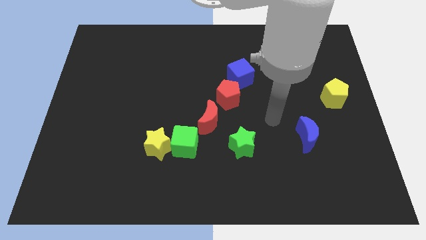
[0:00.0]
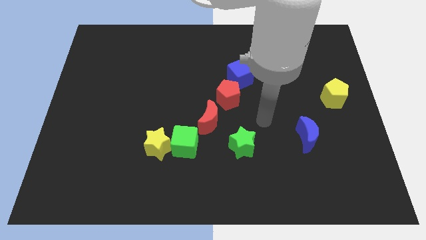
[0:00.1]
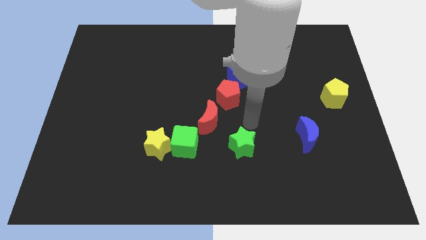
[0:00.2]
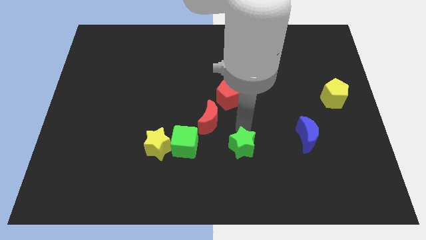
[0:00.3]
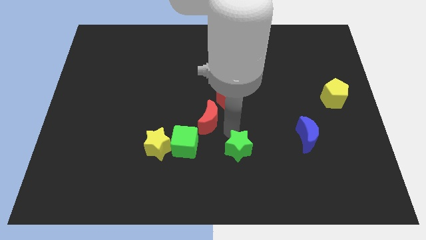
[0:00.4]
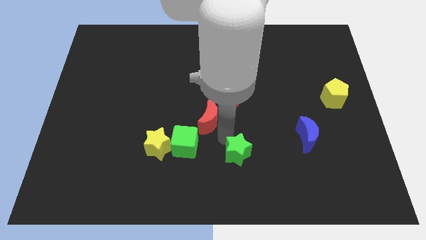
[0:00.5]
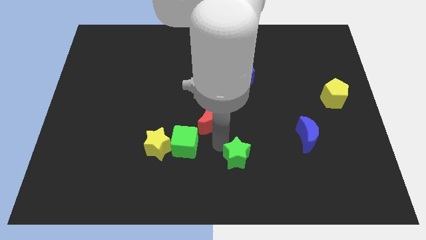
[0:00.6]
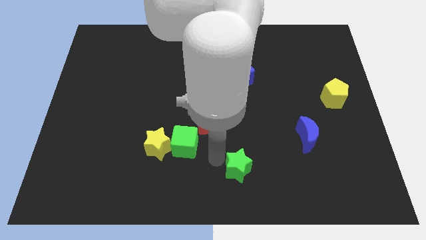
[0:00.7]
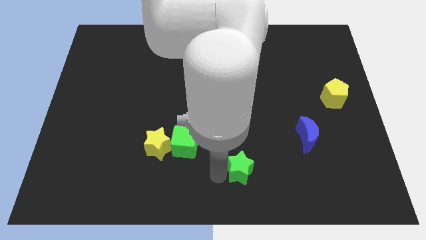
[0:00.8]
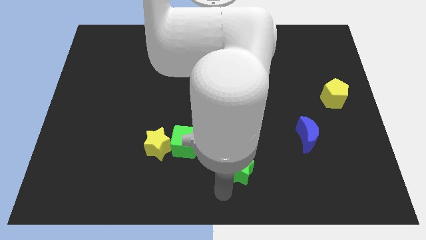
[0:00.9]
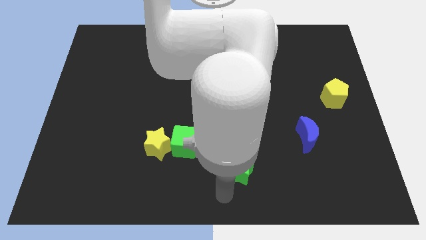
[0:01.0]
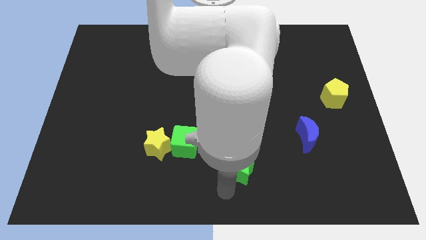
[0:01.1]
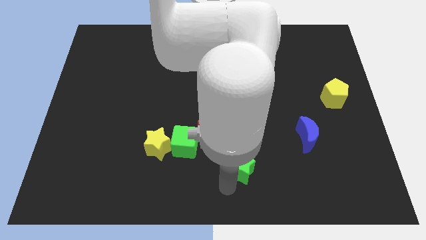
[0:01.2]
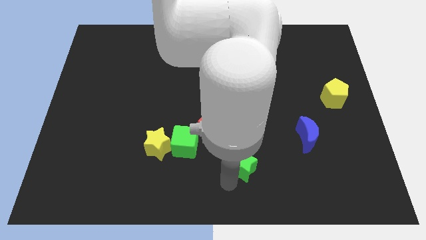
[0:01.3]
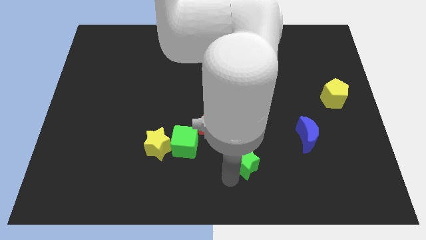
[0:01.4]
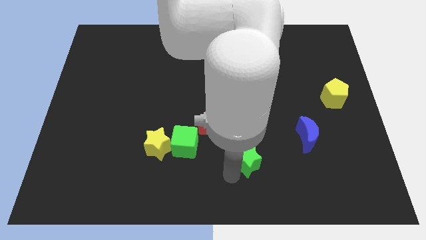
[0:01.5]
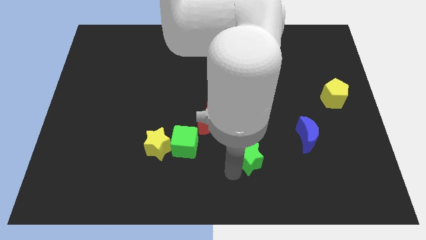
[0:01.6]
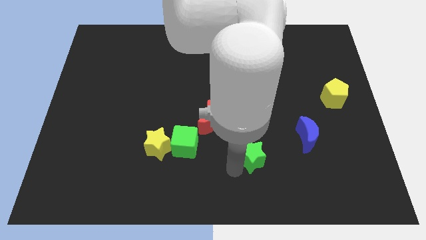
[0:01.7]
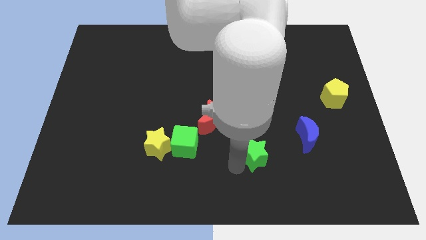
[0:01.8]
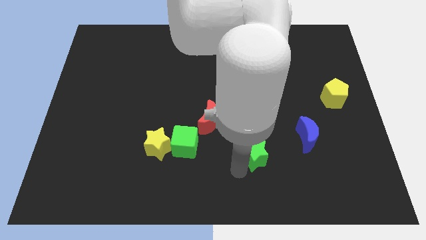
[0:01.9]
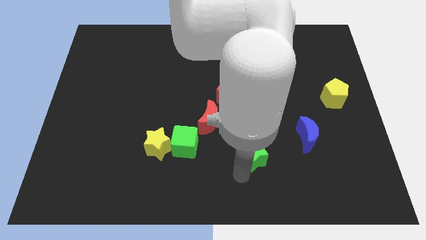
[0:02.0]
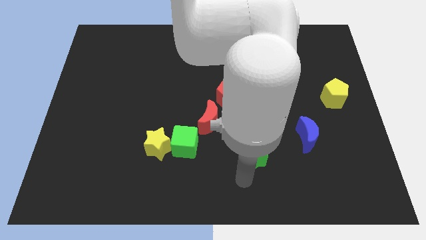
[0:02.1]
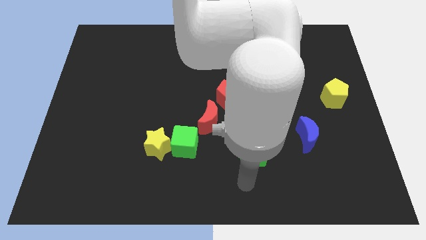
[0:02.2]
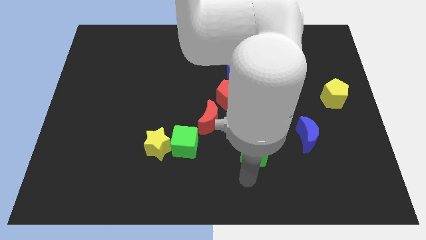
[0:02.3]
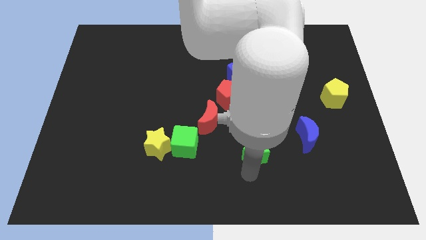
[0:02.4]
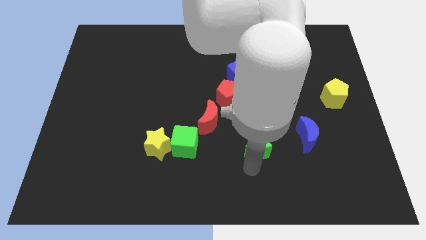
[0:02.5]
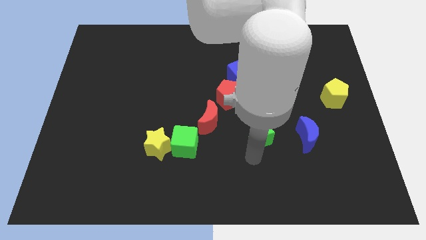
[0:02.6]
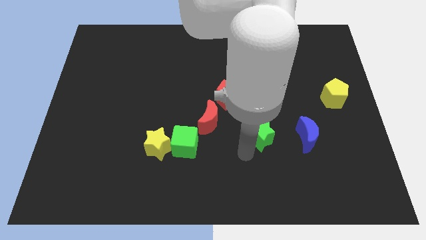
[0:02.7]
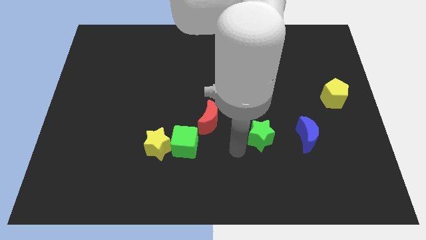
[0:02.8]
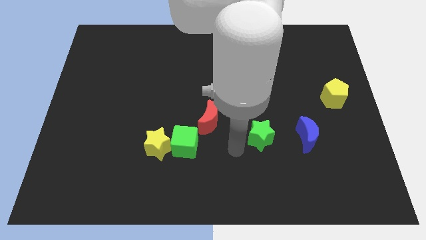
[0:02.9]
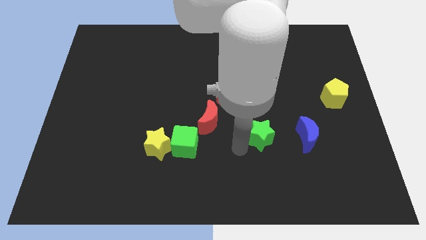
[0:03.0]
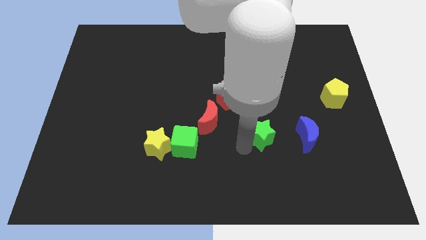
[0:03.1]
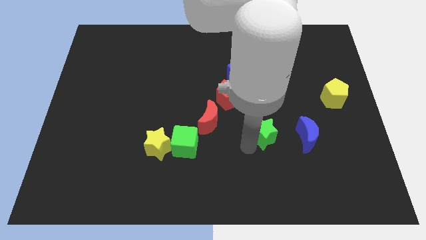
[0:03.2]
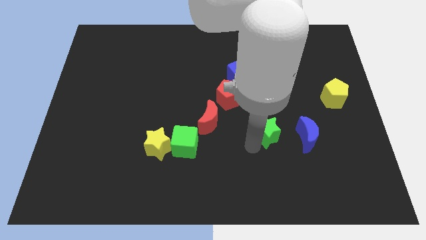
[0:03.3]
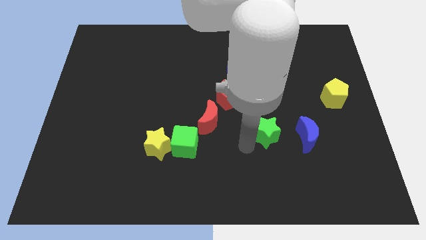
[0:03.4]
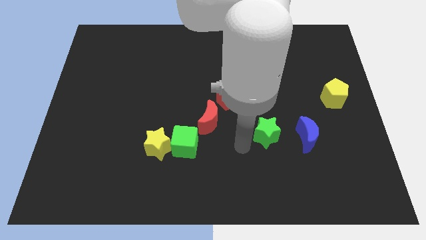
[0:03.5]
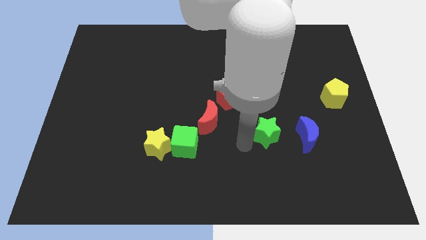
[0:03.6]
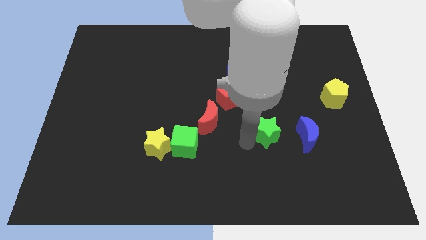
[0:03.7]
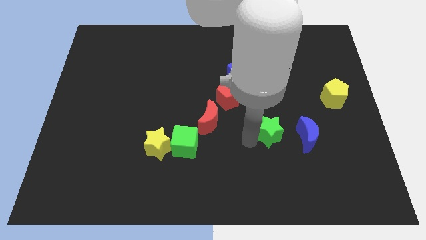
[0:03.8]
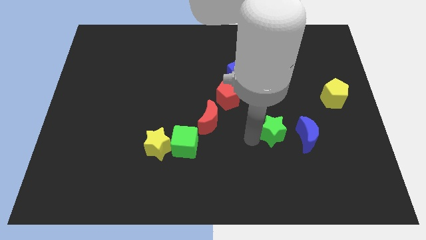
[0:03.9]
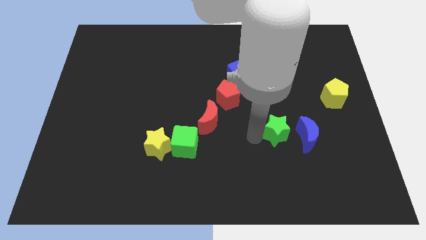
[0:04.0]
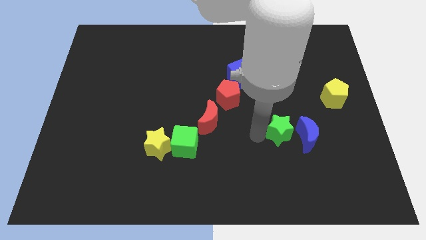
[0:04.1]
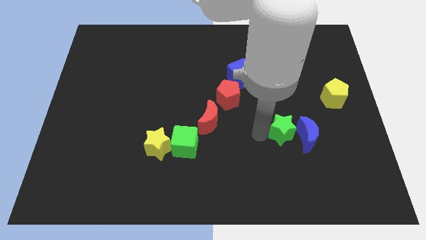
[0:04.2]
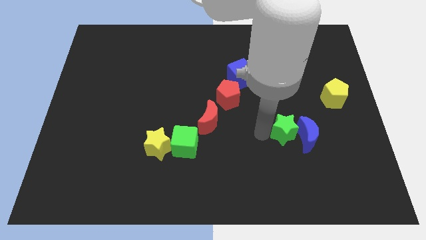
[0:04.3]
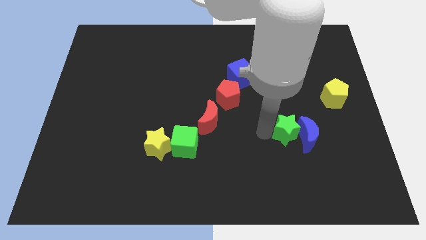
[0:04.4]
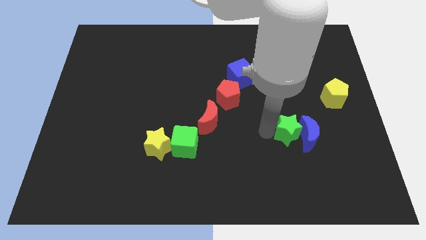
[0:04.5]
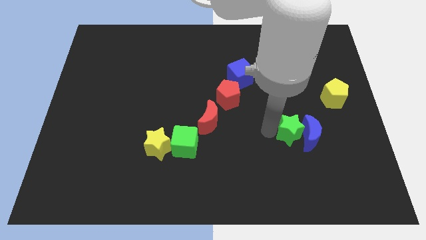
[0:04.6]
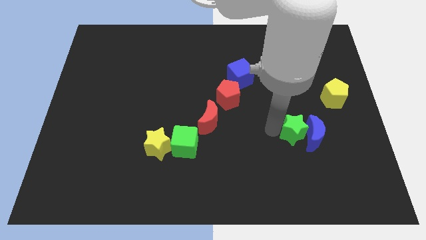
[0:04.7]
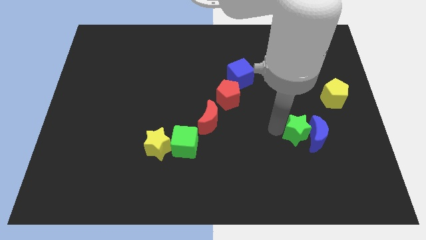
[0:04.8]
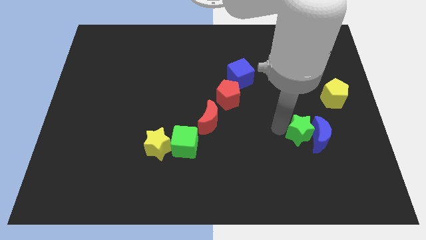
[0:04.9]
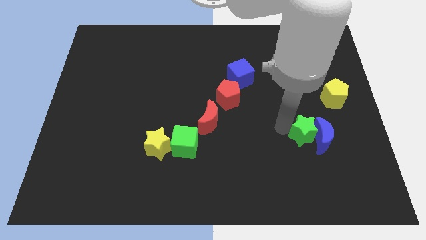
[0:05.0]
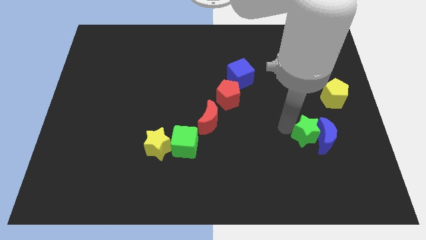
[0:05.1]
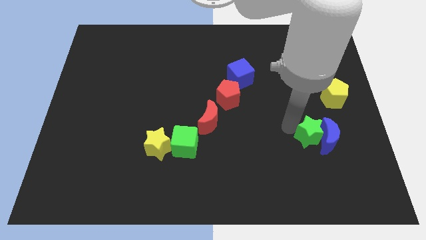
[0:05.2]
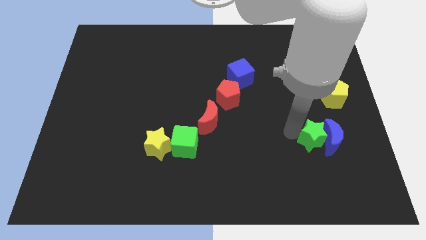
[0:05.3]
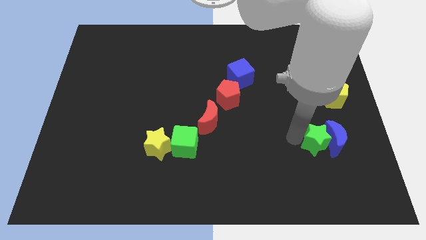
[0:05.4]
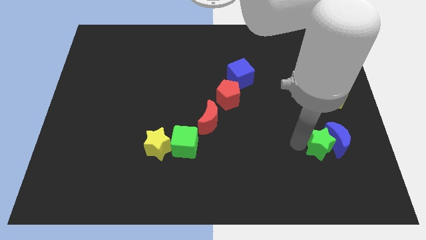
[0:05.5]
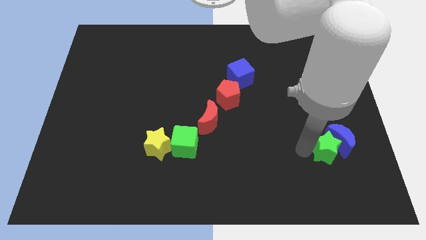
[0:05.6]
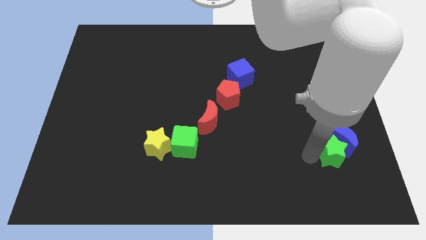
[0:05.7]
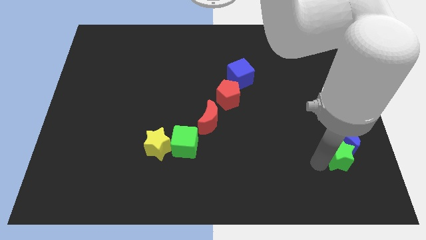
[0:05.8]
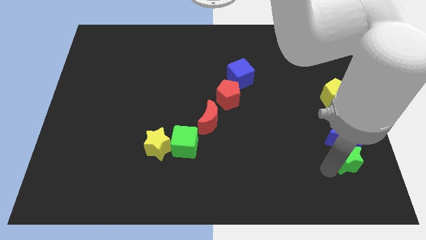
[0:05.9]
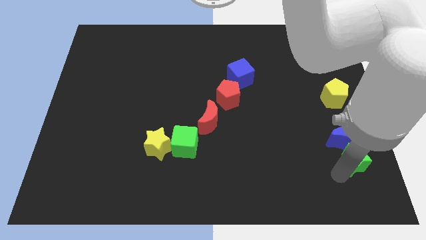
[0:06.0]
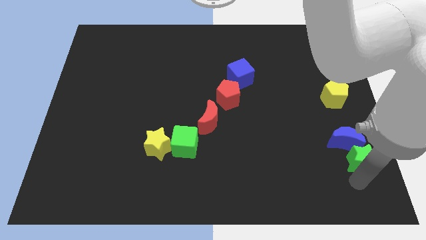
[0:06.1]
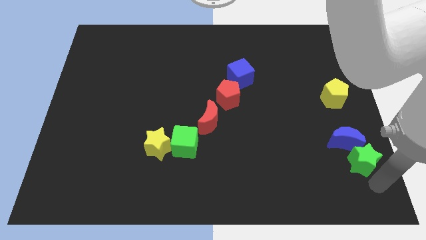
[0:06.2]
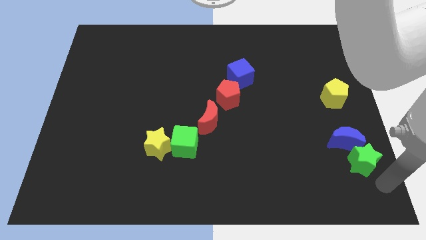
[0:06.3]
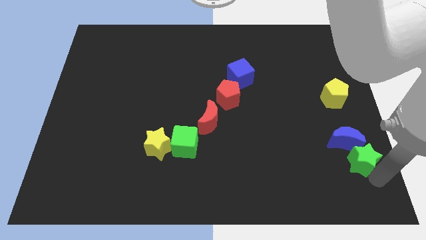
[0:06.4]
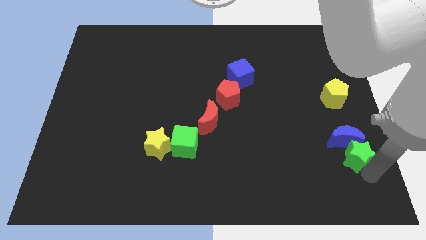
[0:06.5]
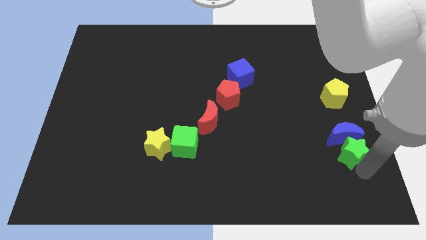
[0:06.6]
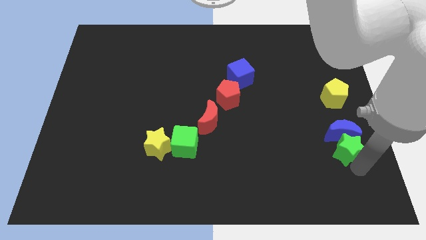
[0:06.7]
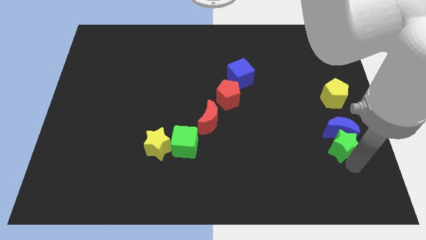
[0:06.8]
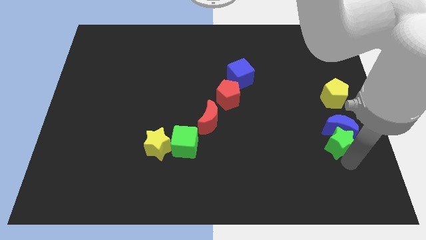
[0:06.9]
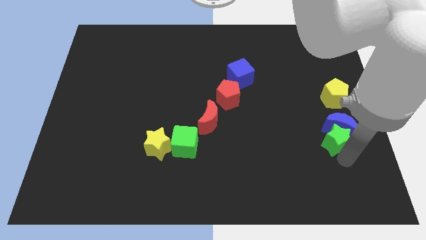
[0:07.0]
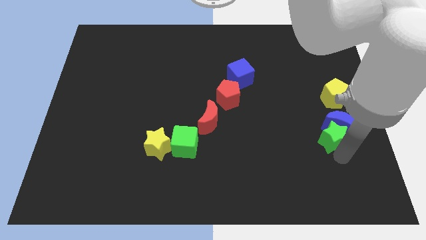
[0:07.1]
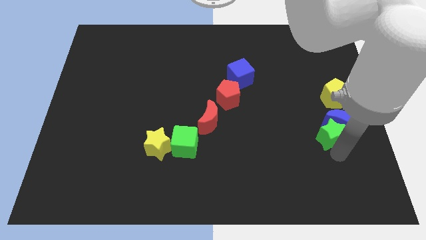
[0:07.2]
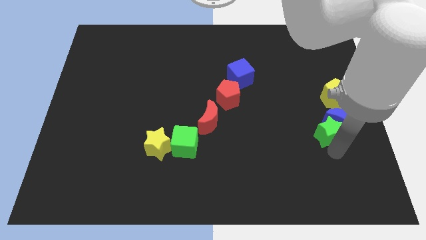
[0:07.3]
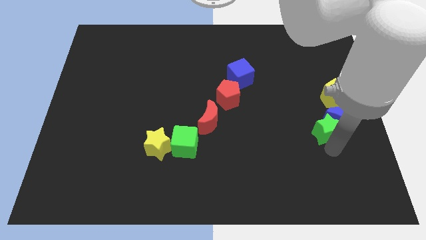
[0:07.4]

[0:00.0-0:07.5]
push the green star to the bottom left of the yellow pentagon

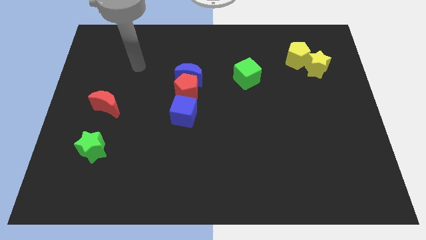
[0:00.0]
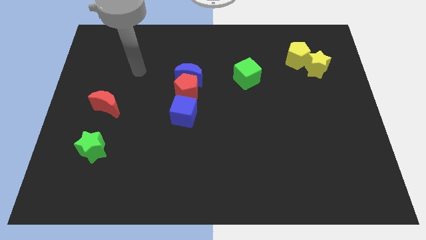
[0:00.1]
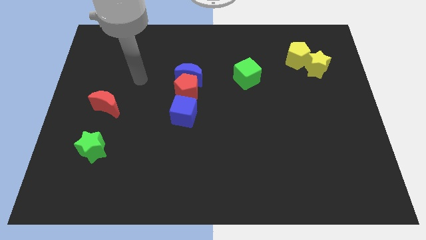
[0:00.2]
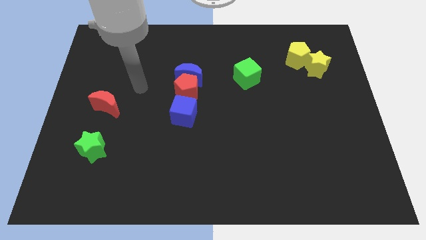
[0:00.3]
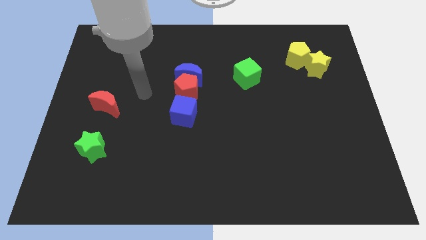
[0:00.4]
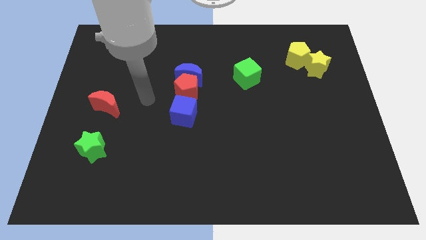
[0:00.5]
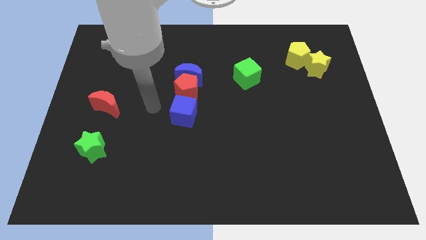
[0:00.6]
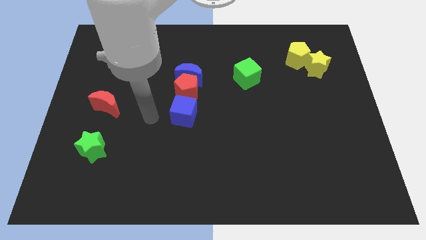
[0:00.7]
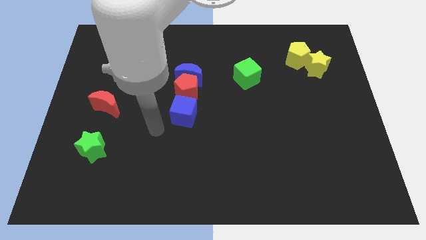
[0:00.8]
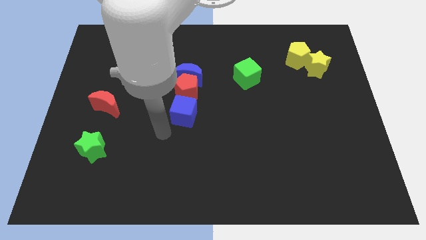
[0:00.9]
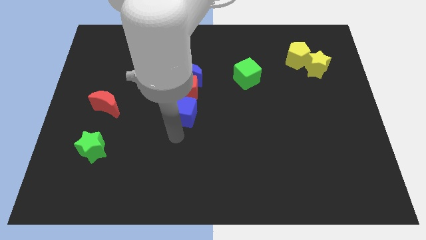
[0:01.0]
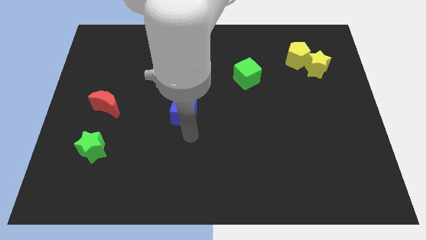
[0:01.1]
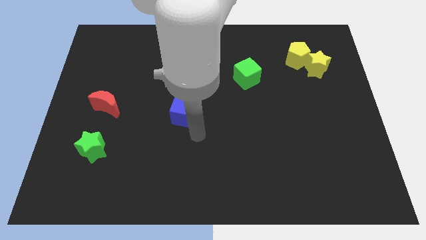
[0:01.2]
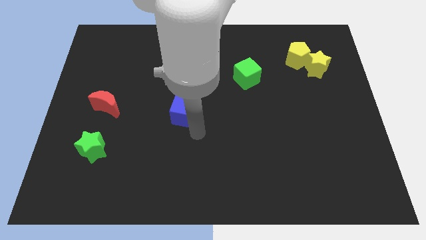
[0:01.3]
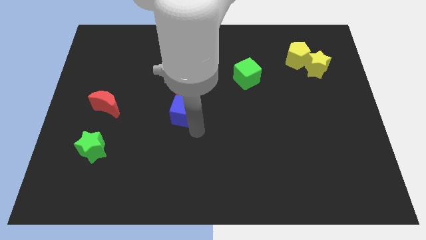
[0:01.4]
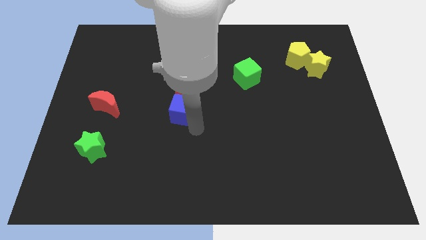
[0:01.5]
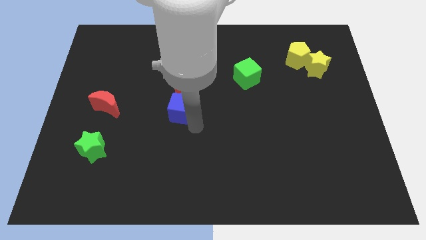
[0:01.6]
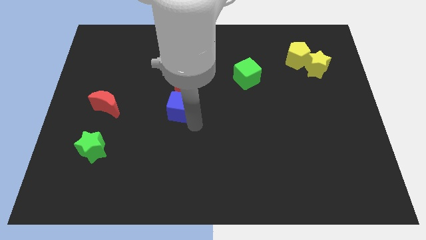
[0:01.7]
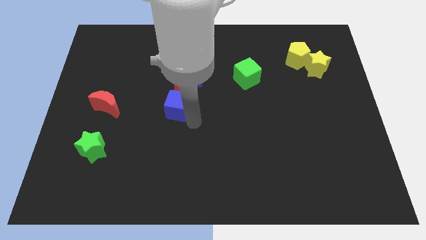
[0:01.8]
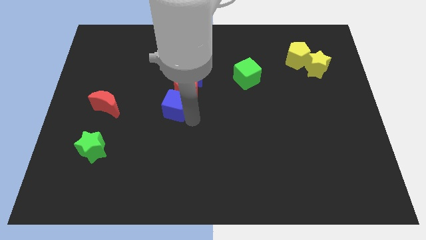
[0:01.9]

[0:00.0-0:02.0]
move the blue cube diagonally down and to the left of the blue moon
